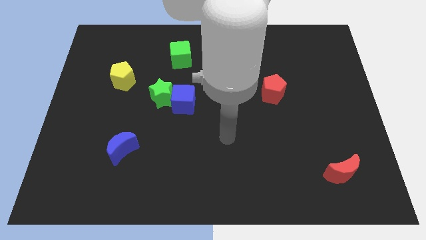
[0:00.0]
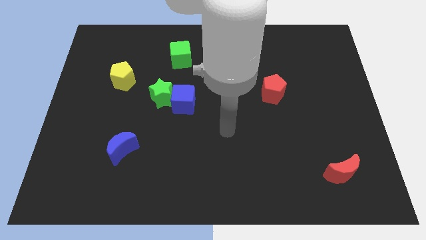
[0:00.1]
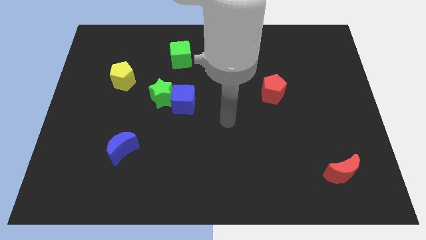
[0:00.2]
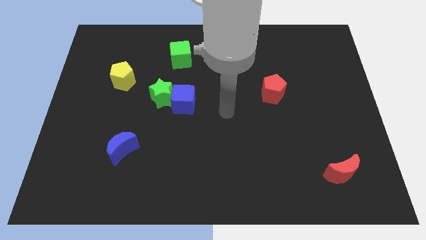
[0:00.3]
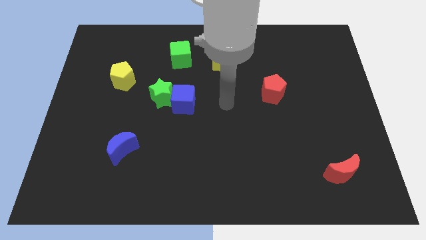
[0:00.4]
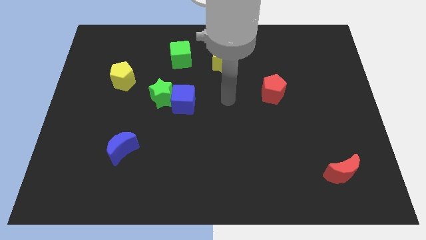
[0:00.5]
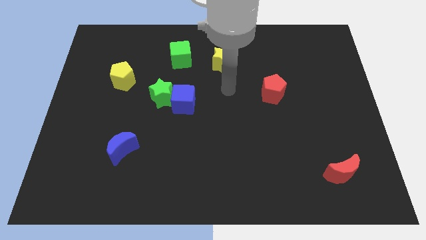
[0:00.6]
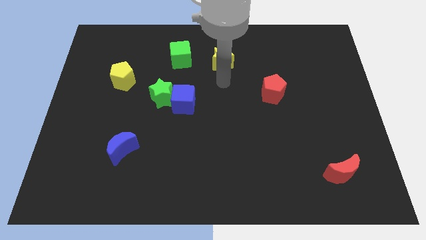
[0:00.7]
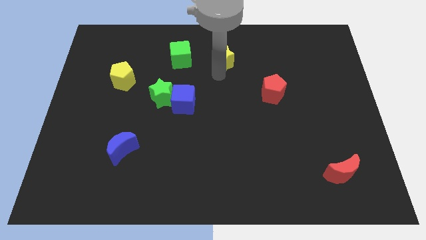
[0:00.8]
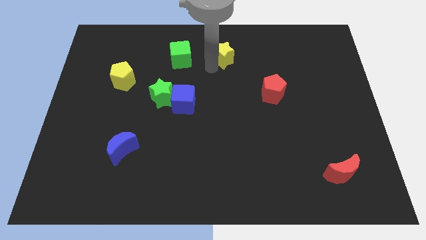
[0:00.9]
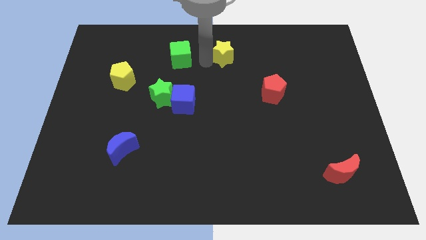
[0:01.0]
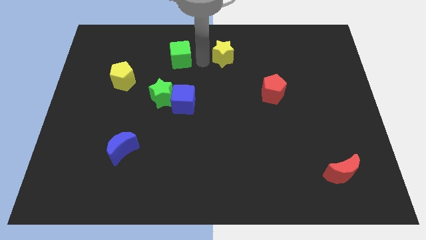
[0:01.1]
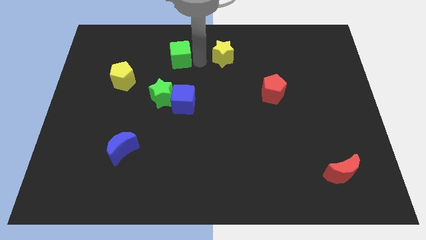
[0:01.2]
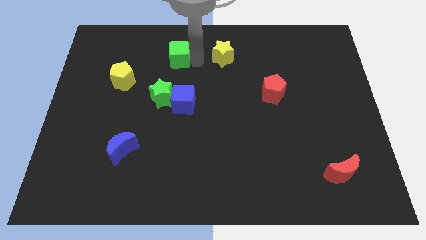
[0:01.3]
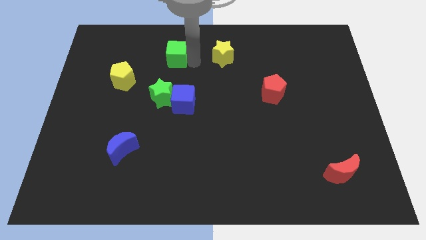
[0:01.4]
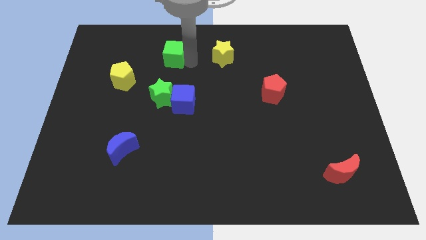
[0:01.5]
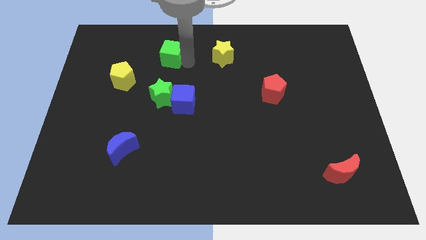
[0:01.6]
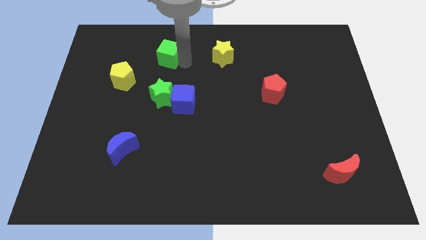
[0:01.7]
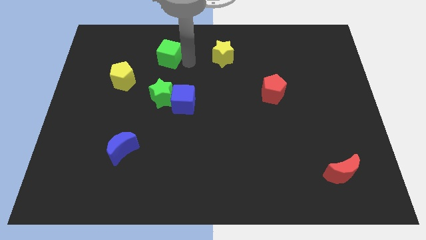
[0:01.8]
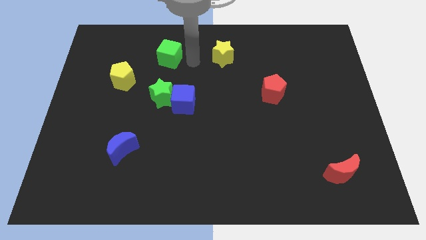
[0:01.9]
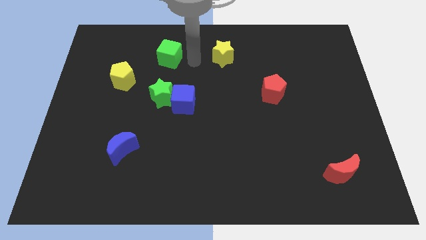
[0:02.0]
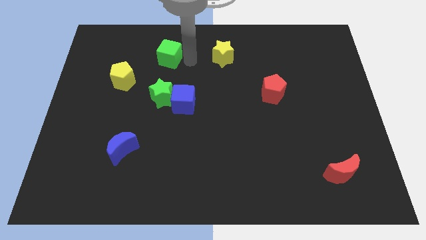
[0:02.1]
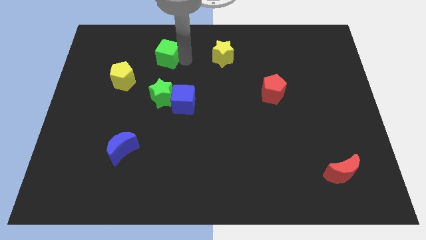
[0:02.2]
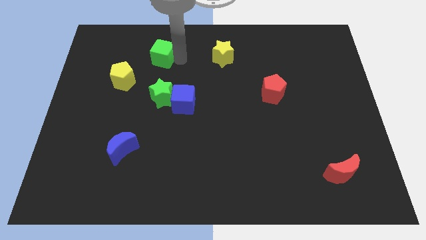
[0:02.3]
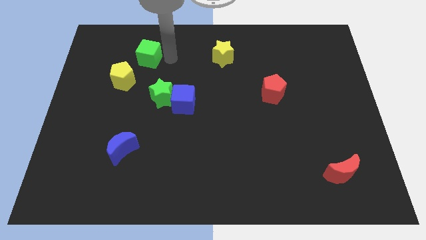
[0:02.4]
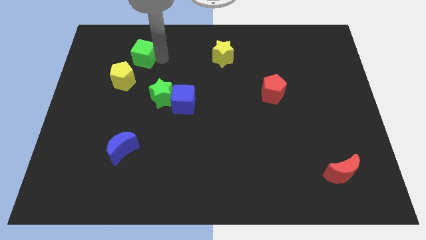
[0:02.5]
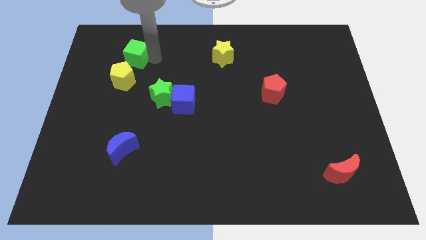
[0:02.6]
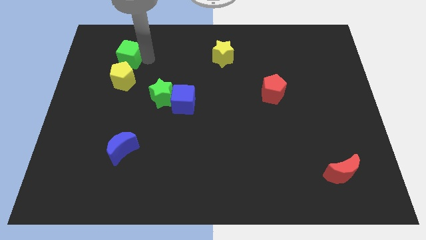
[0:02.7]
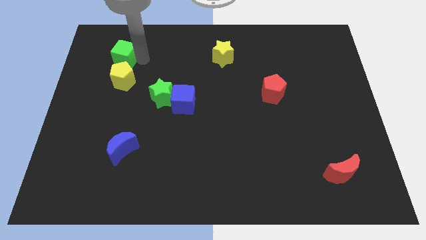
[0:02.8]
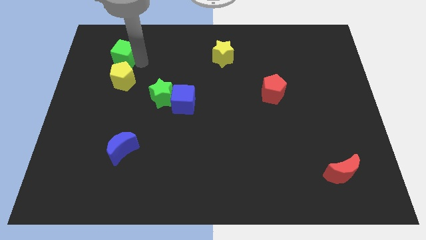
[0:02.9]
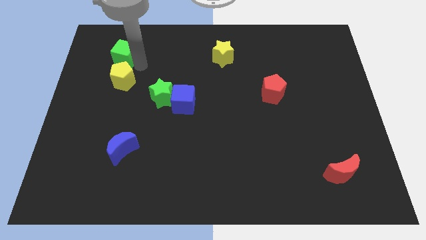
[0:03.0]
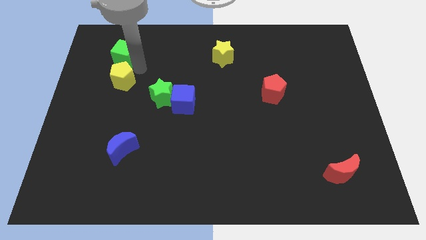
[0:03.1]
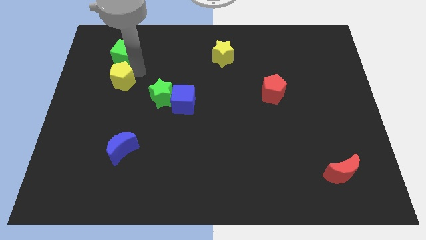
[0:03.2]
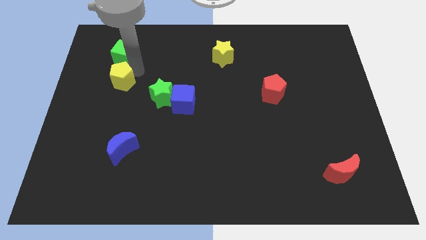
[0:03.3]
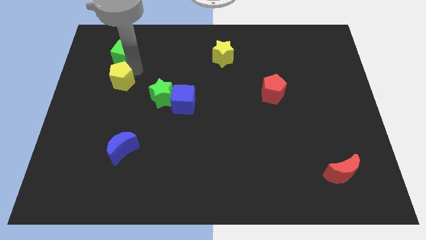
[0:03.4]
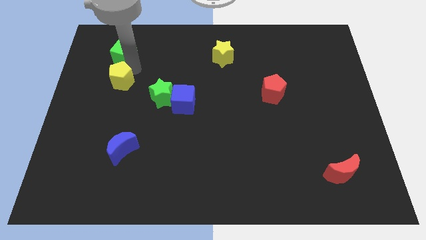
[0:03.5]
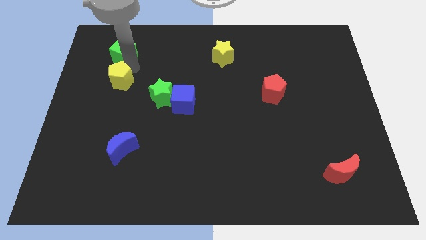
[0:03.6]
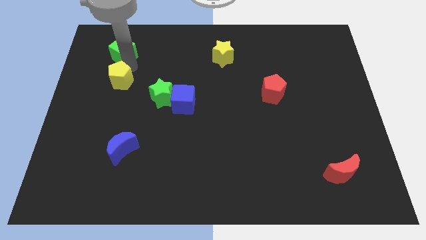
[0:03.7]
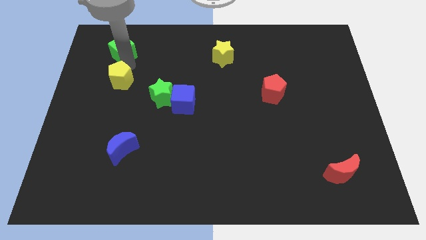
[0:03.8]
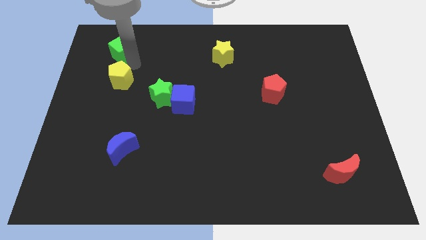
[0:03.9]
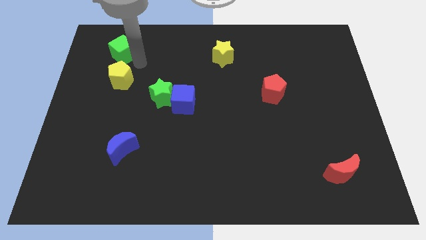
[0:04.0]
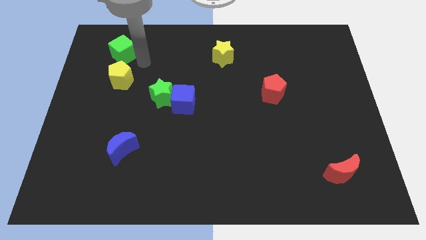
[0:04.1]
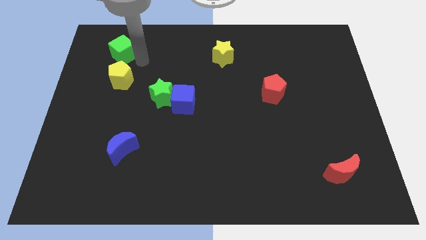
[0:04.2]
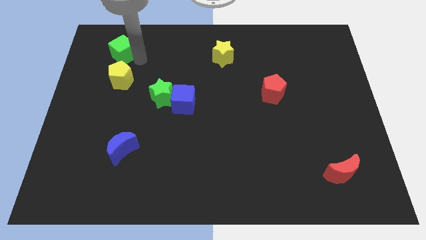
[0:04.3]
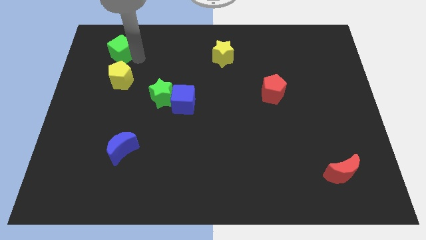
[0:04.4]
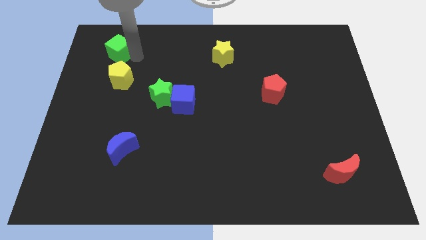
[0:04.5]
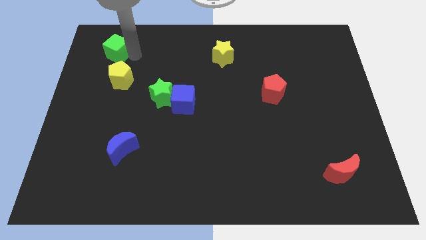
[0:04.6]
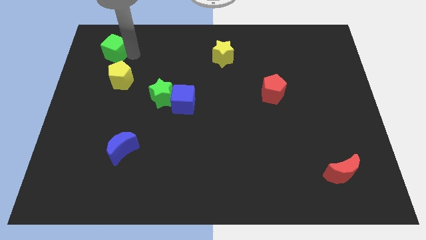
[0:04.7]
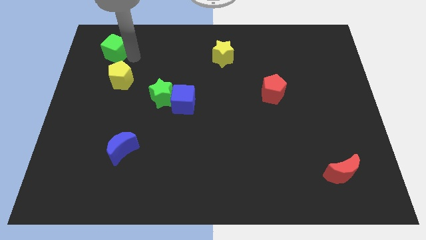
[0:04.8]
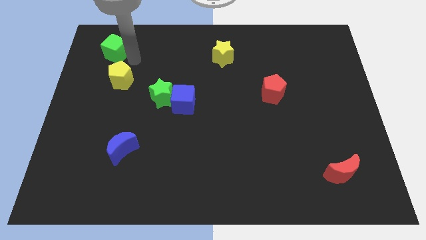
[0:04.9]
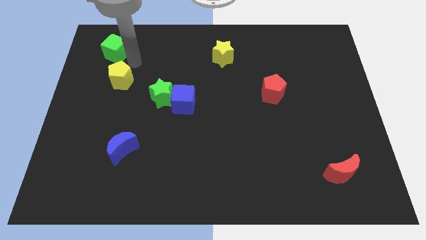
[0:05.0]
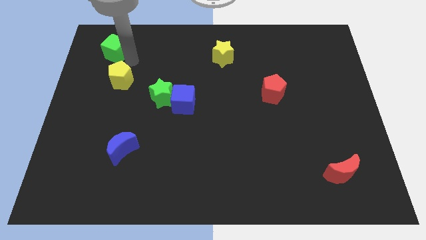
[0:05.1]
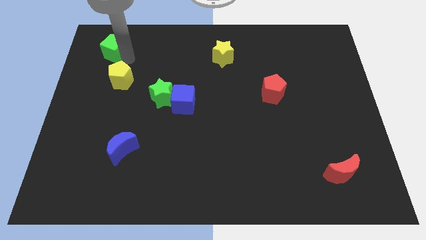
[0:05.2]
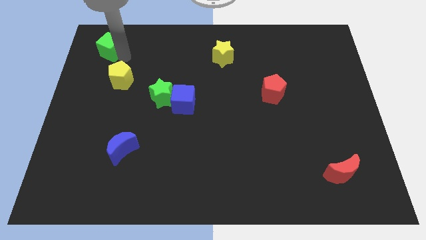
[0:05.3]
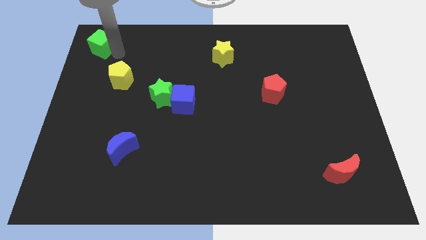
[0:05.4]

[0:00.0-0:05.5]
push the green cube to the top left

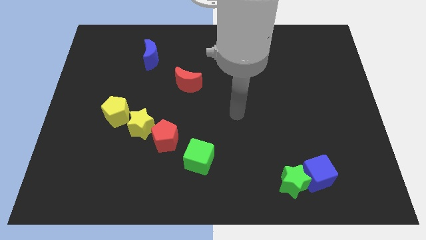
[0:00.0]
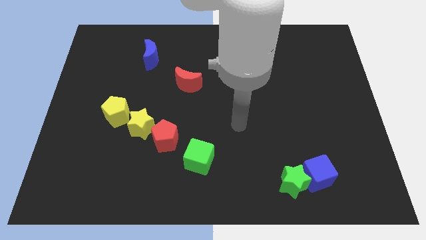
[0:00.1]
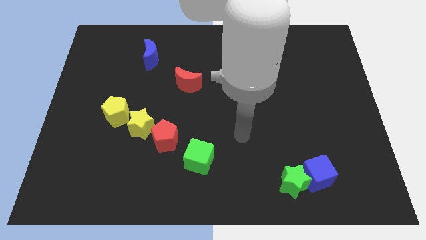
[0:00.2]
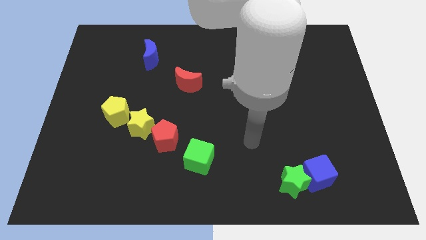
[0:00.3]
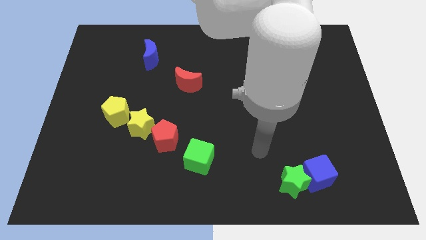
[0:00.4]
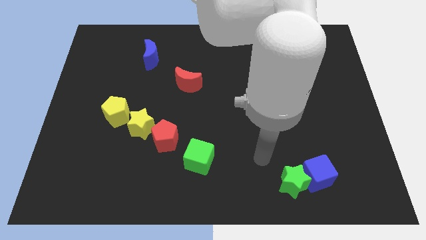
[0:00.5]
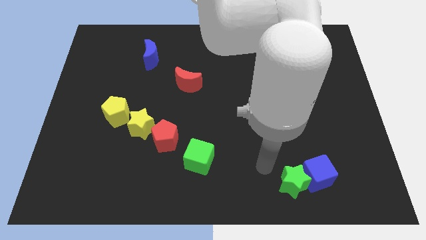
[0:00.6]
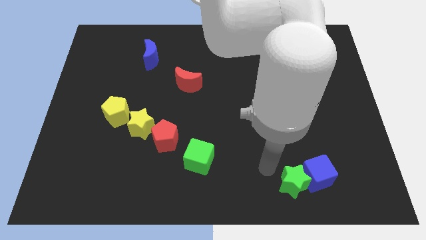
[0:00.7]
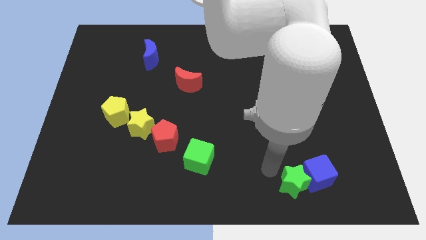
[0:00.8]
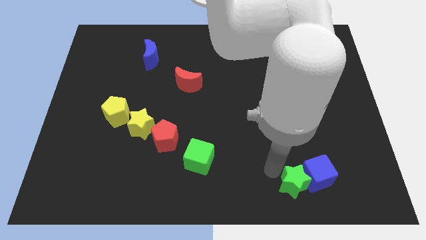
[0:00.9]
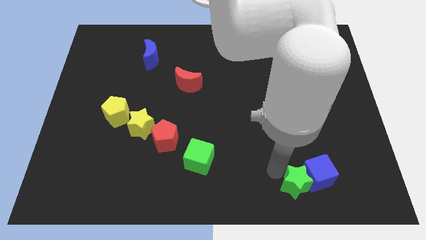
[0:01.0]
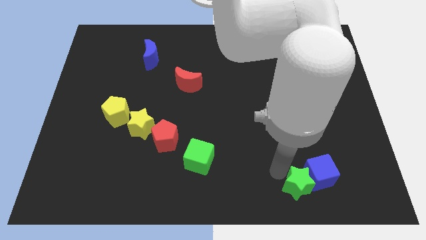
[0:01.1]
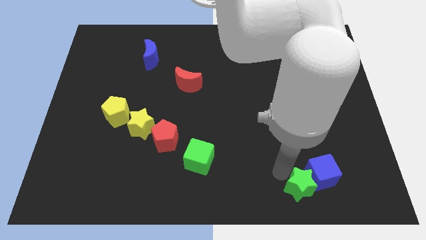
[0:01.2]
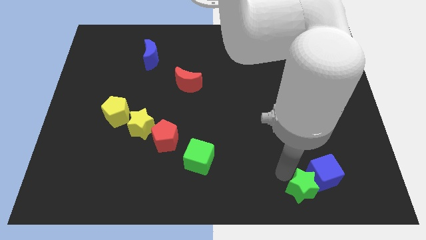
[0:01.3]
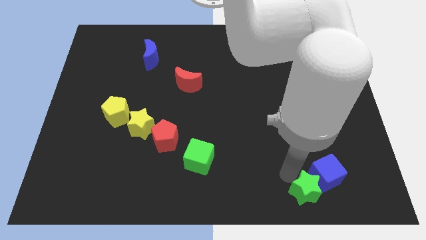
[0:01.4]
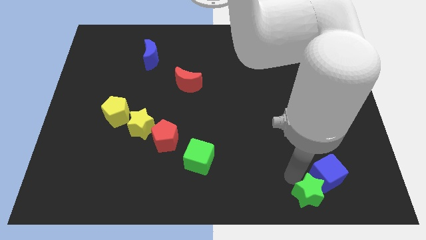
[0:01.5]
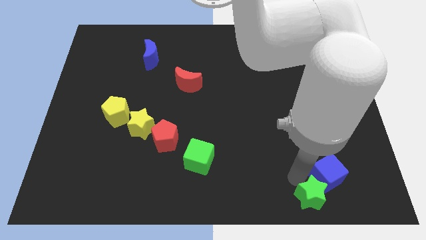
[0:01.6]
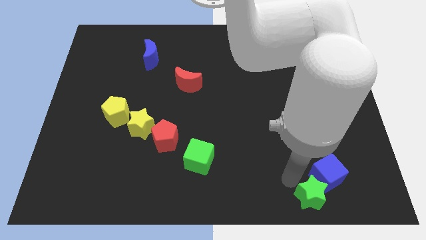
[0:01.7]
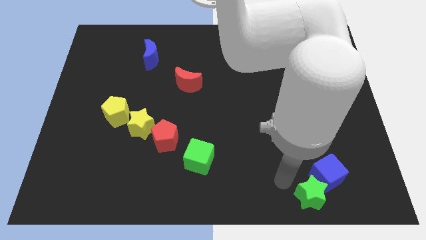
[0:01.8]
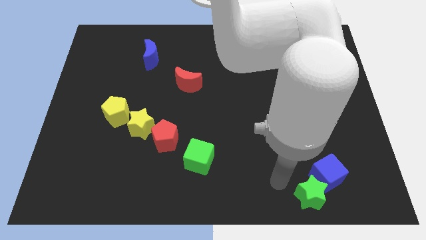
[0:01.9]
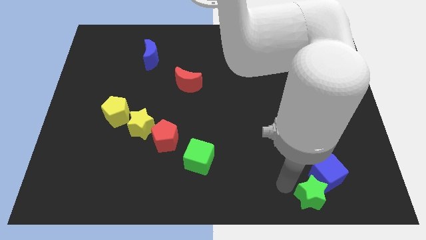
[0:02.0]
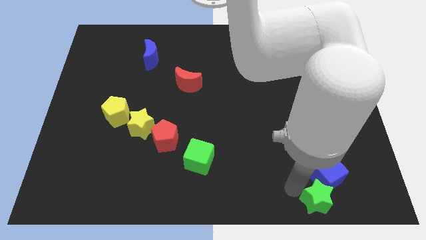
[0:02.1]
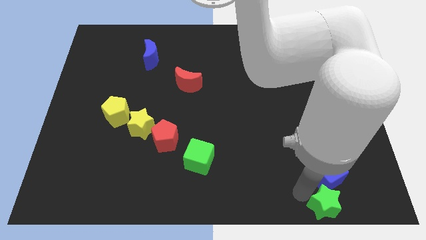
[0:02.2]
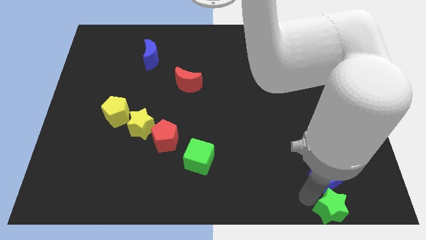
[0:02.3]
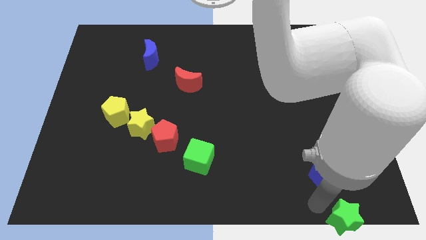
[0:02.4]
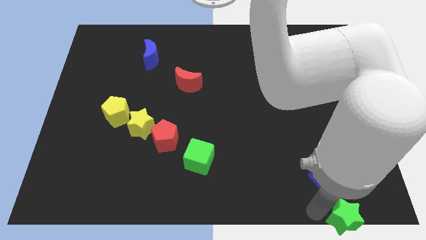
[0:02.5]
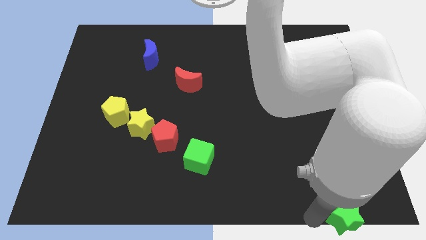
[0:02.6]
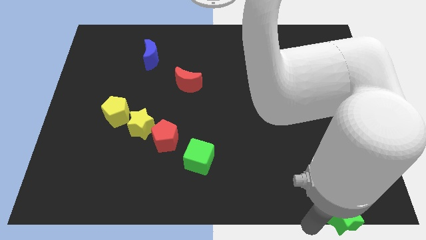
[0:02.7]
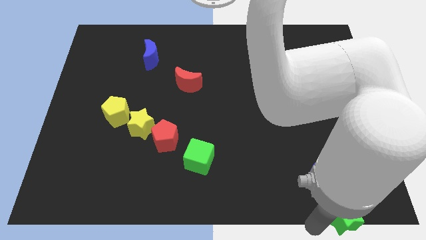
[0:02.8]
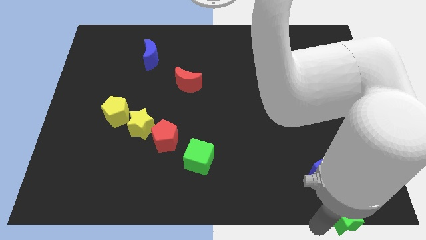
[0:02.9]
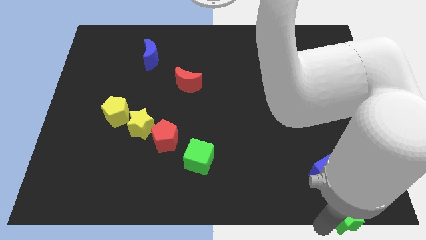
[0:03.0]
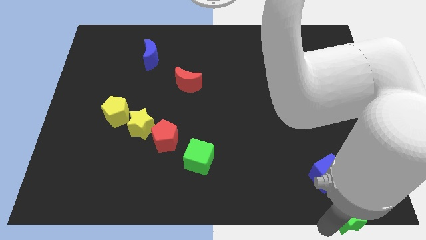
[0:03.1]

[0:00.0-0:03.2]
slide the green star to the bottom right of the board
